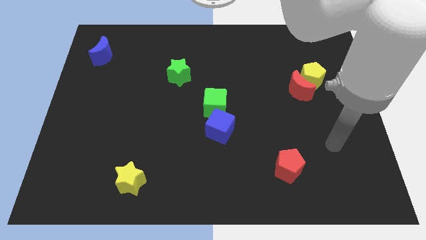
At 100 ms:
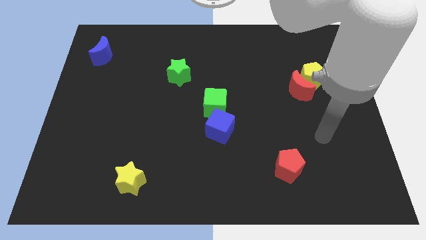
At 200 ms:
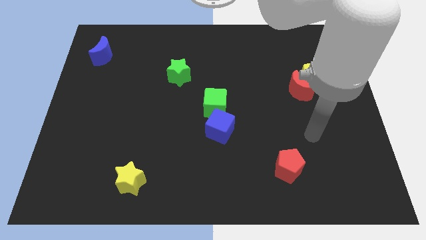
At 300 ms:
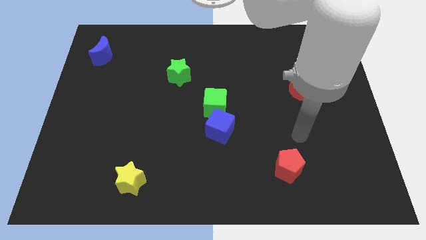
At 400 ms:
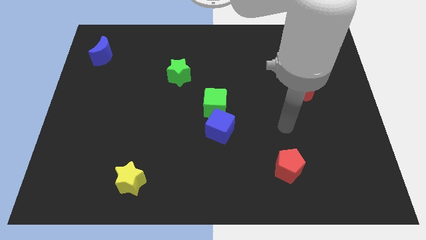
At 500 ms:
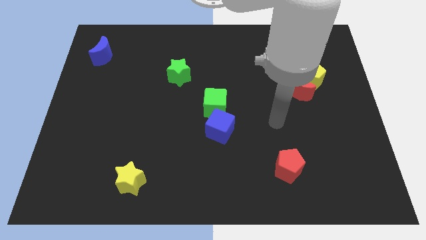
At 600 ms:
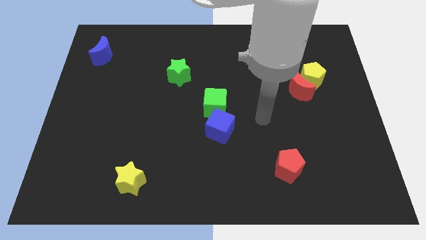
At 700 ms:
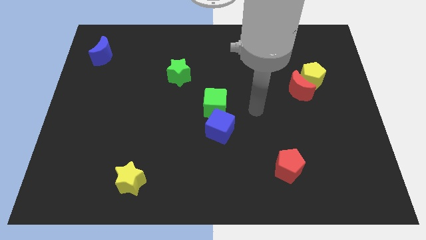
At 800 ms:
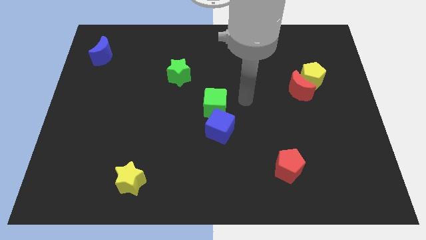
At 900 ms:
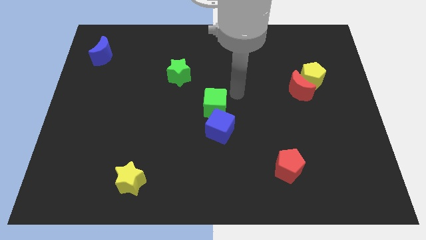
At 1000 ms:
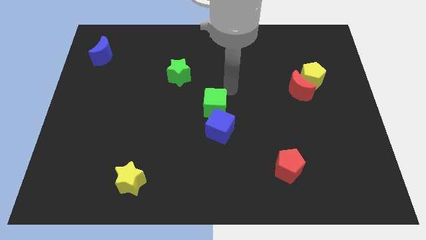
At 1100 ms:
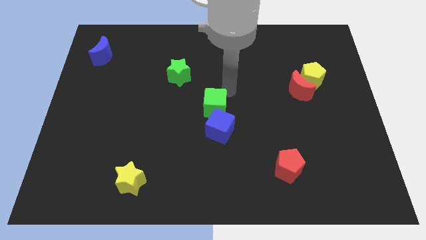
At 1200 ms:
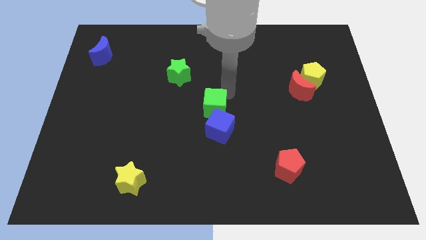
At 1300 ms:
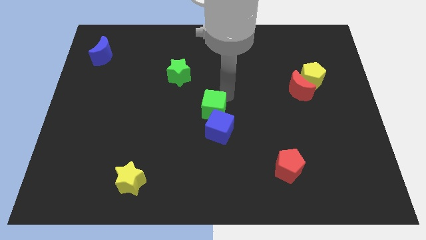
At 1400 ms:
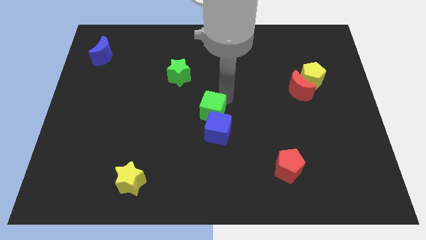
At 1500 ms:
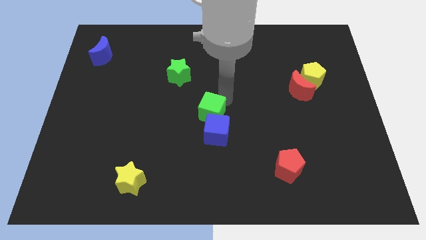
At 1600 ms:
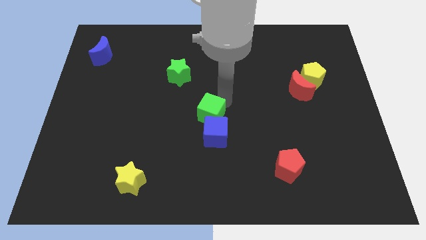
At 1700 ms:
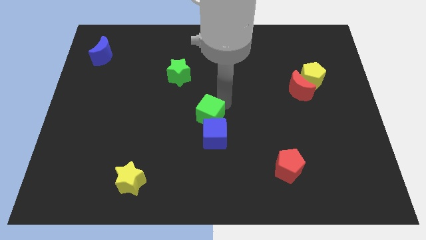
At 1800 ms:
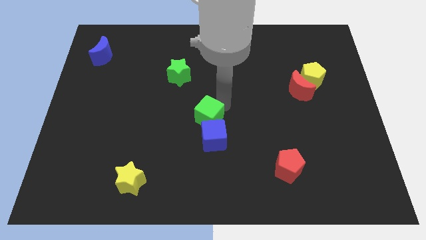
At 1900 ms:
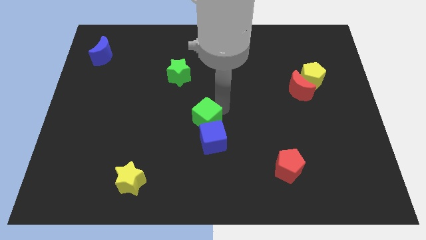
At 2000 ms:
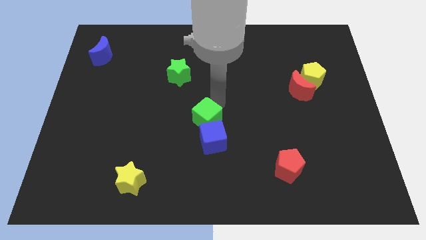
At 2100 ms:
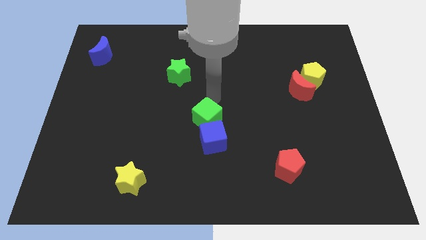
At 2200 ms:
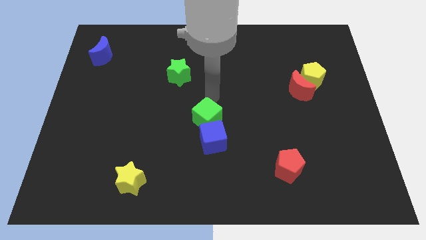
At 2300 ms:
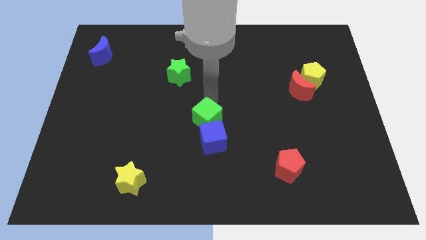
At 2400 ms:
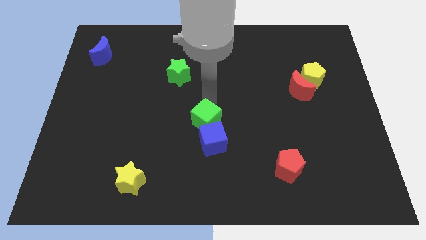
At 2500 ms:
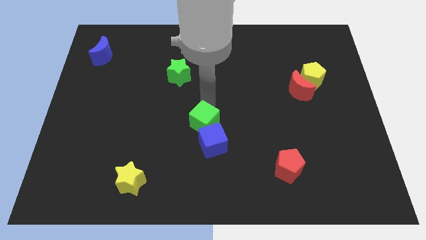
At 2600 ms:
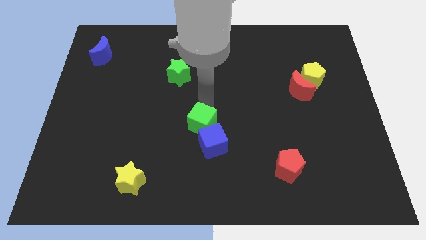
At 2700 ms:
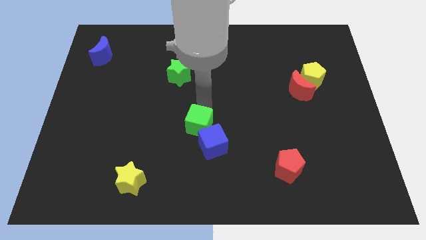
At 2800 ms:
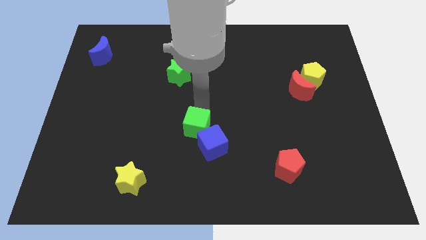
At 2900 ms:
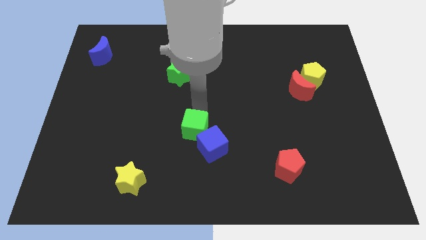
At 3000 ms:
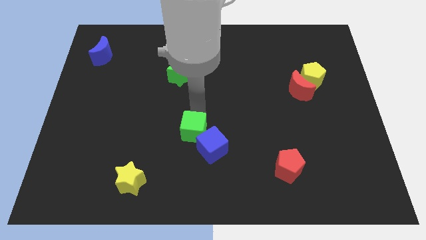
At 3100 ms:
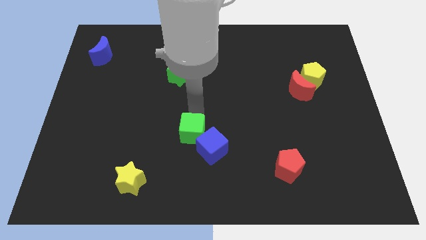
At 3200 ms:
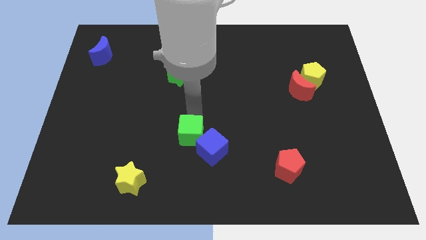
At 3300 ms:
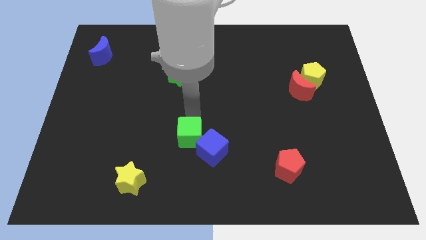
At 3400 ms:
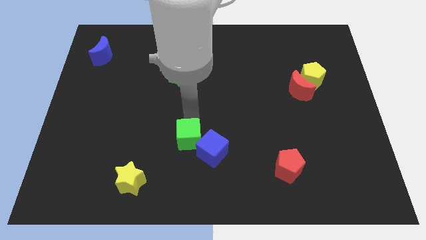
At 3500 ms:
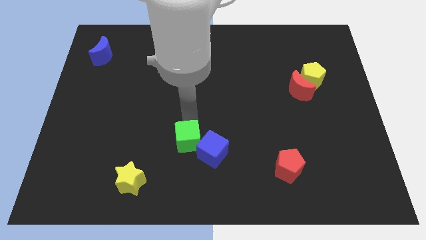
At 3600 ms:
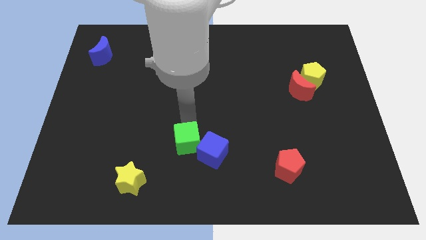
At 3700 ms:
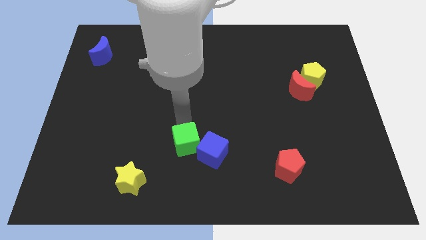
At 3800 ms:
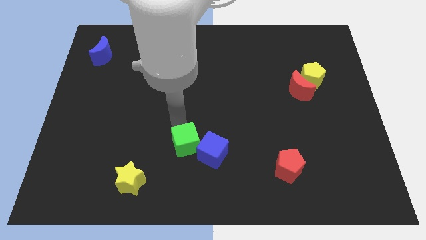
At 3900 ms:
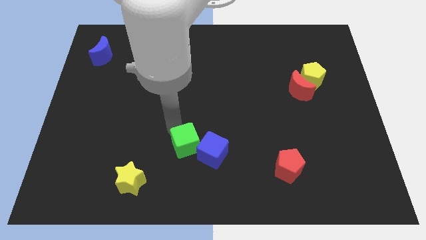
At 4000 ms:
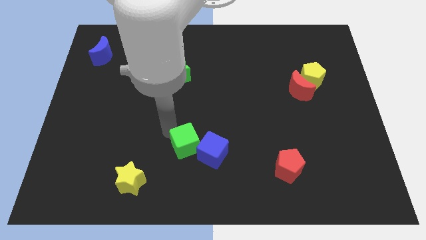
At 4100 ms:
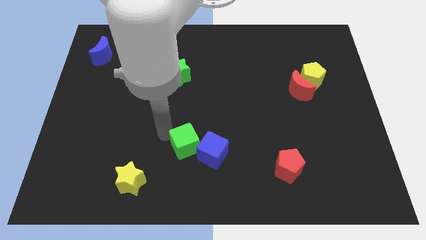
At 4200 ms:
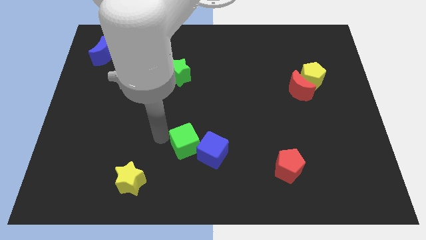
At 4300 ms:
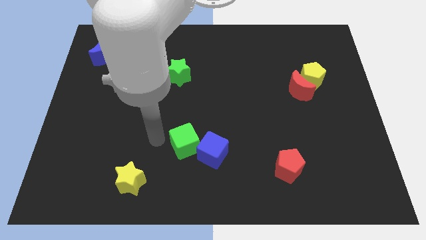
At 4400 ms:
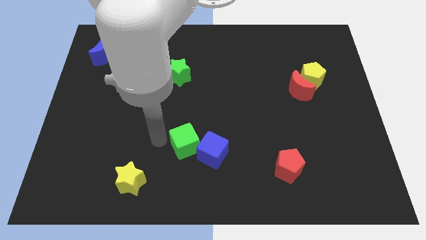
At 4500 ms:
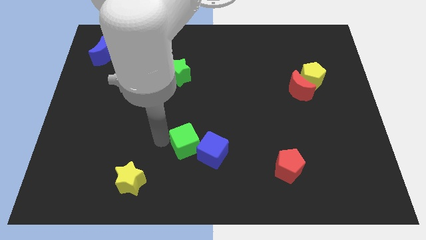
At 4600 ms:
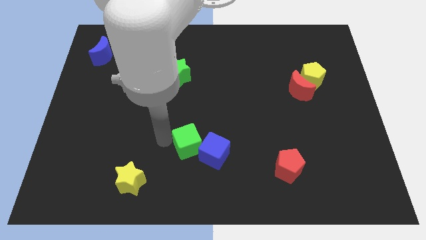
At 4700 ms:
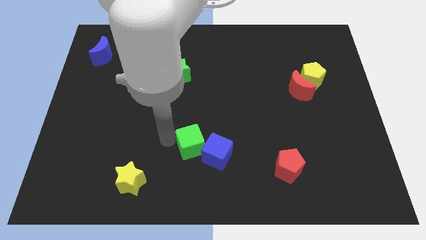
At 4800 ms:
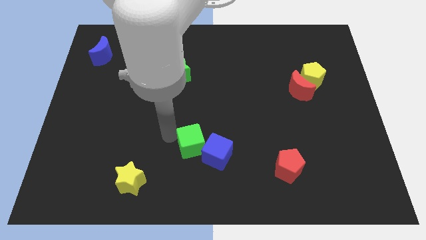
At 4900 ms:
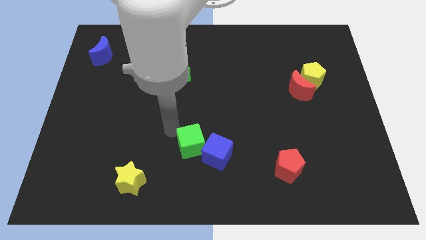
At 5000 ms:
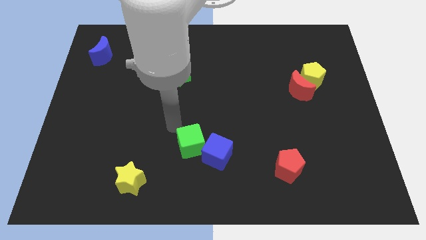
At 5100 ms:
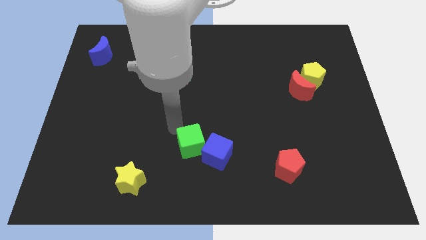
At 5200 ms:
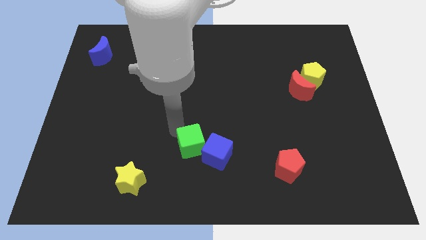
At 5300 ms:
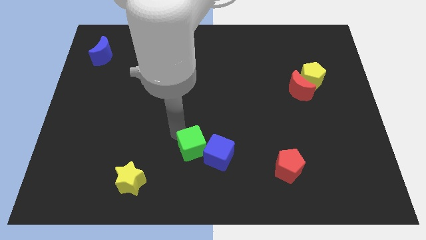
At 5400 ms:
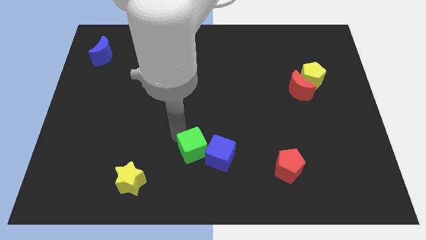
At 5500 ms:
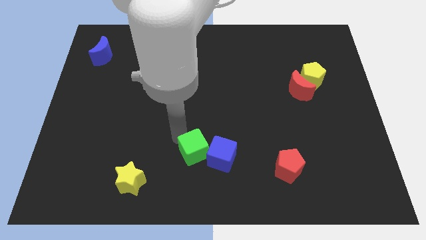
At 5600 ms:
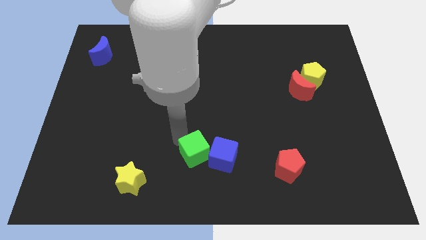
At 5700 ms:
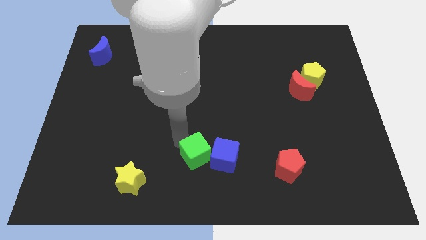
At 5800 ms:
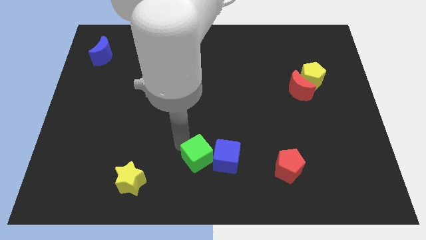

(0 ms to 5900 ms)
put the green cube to the bottom side
